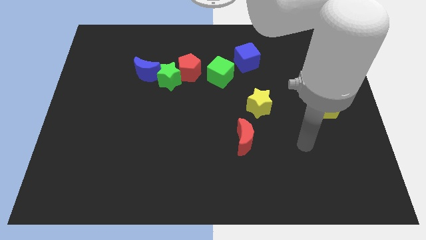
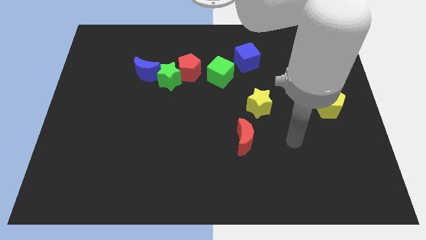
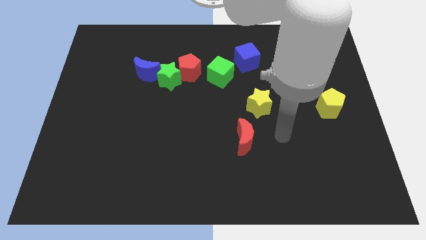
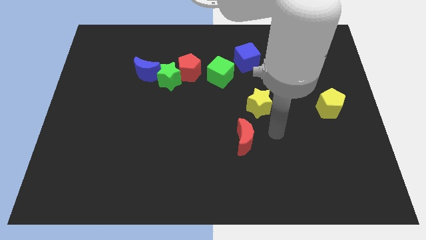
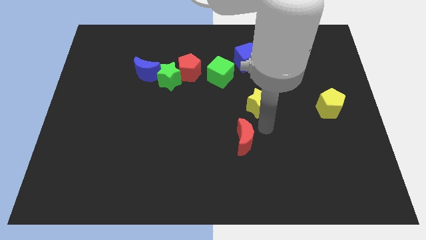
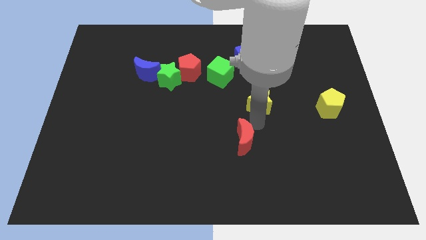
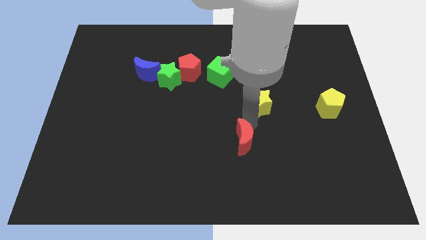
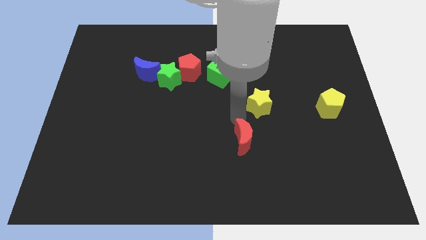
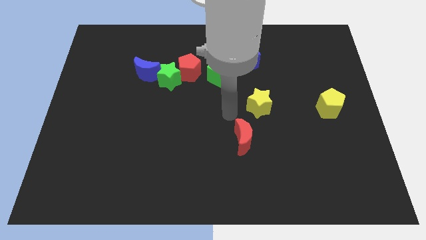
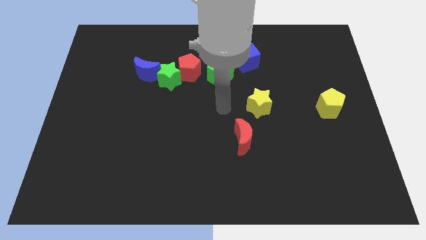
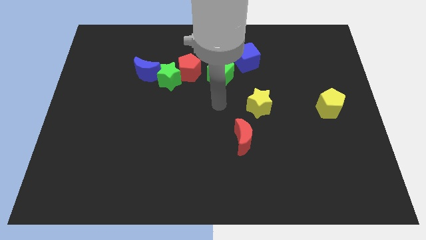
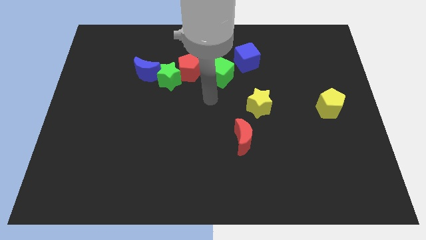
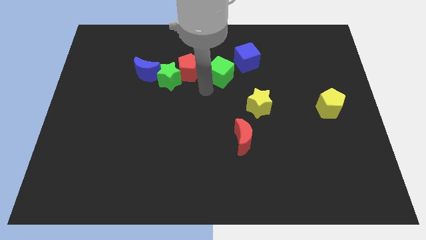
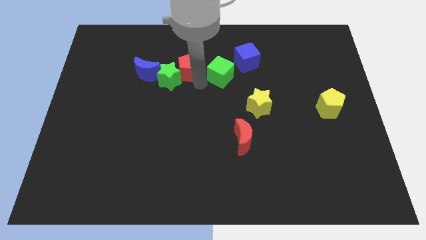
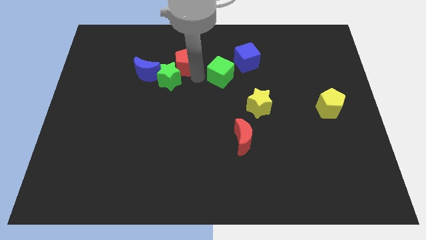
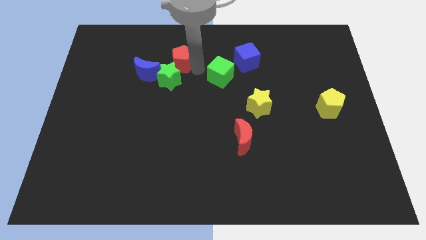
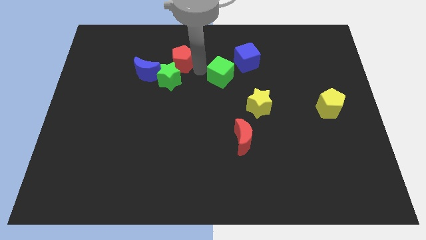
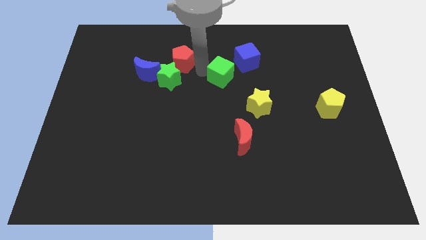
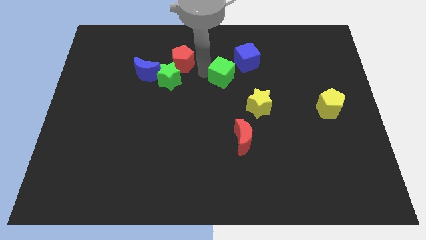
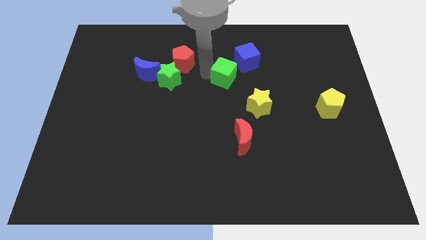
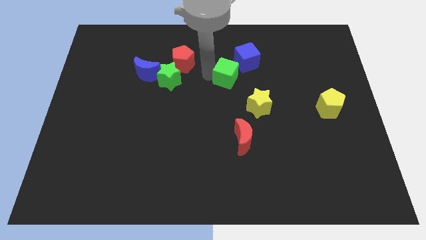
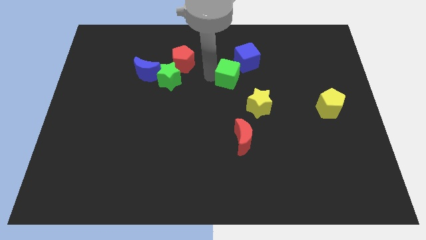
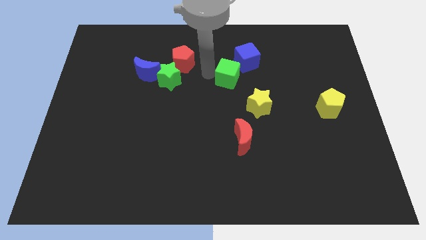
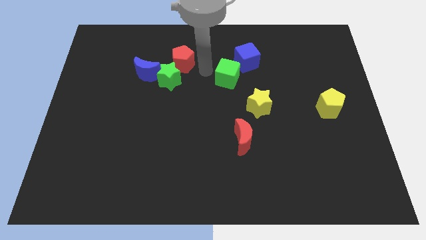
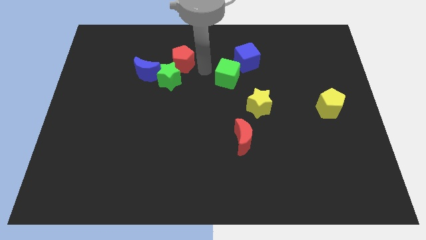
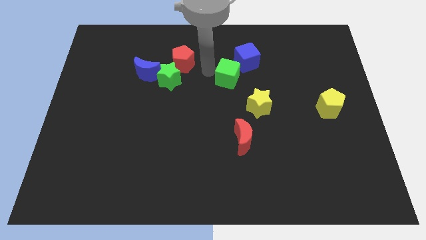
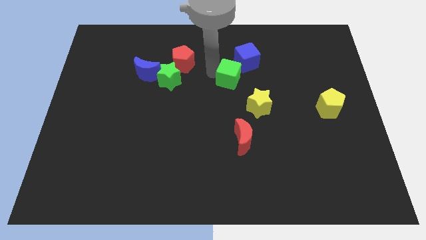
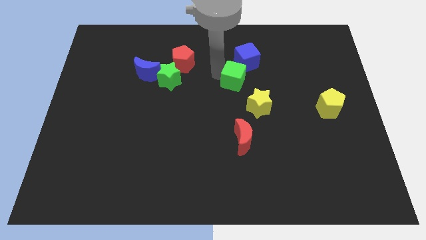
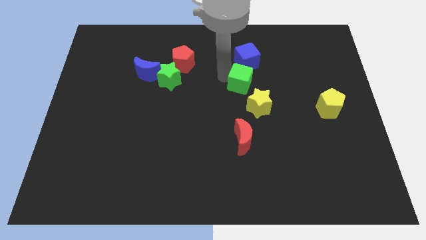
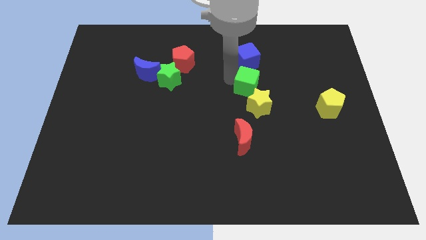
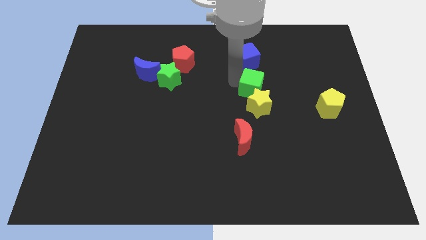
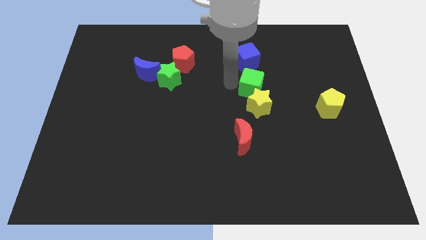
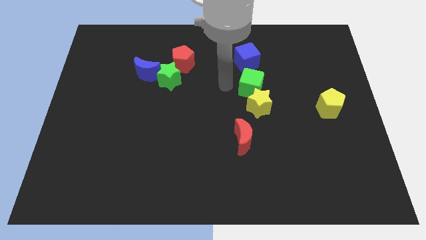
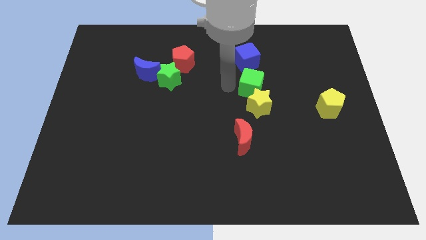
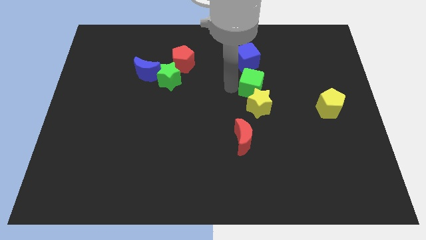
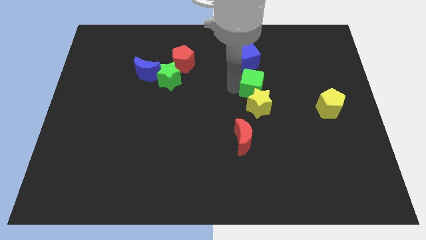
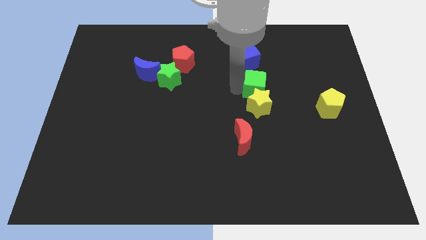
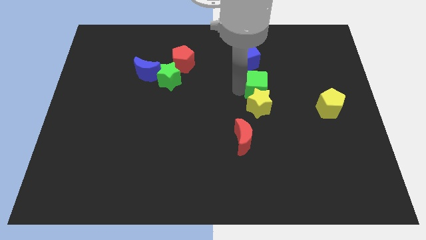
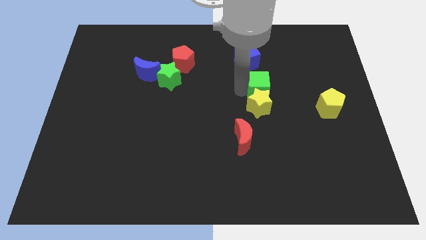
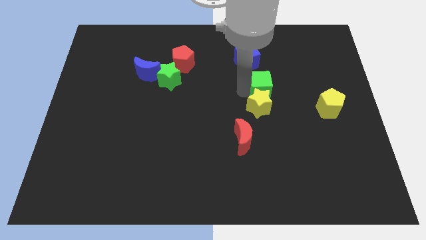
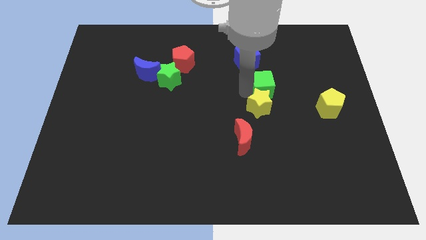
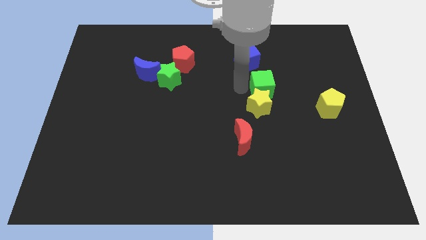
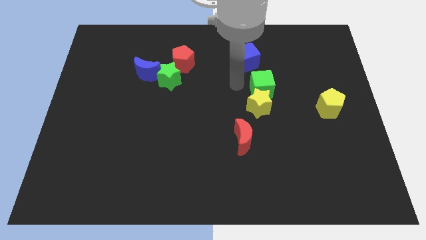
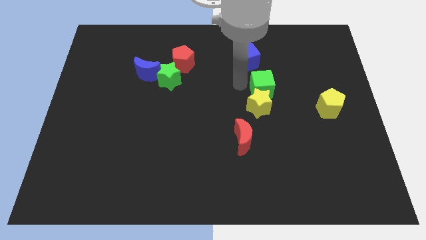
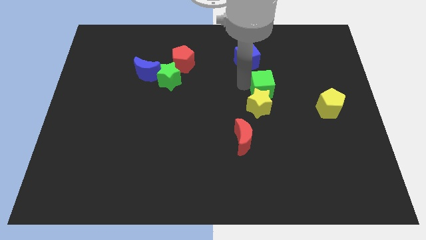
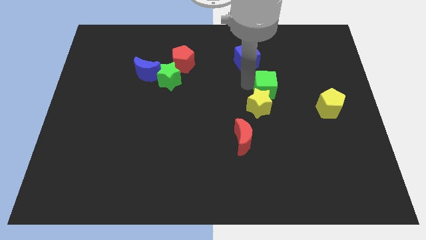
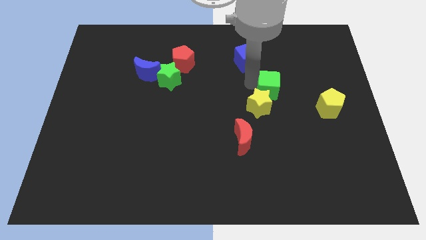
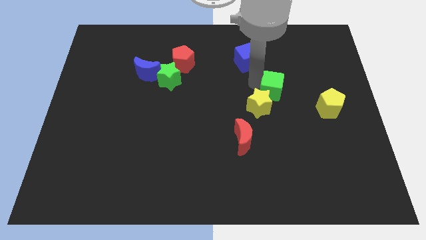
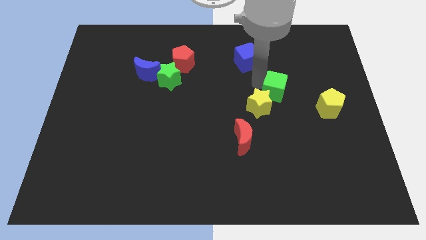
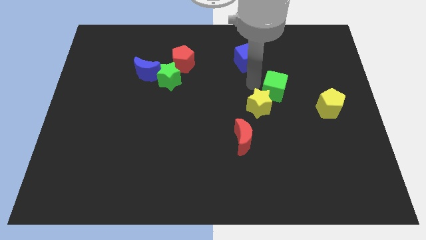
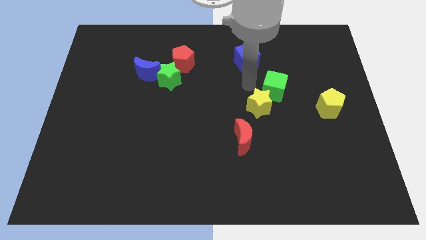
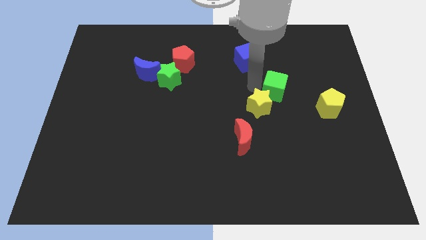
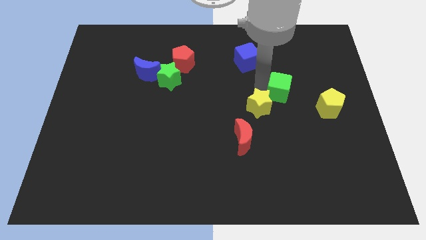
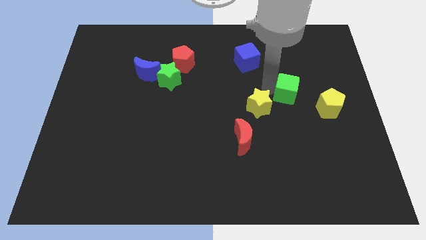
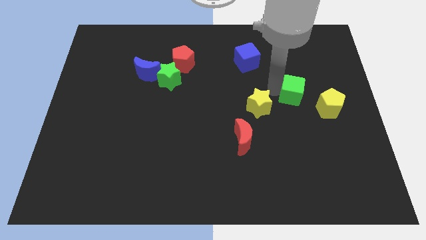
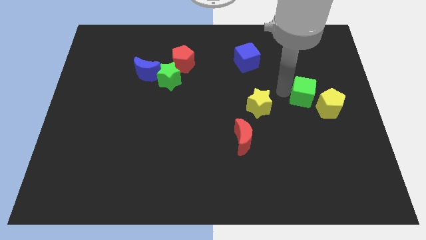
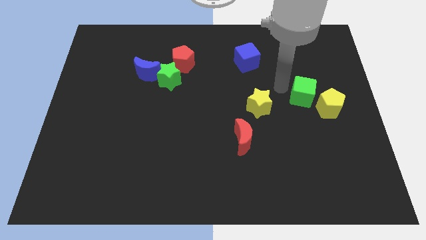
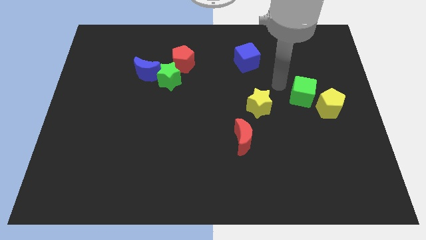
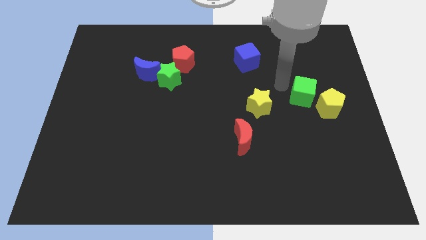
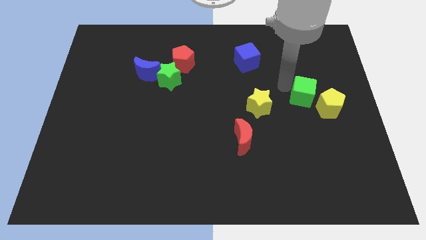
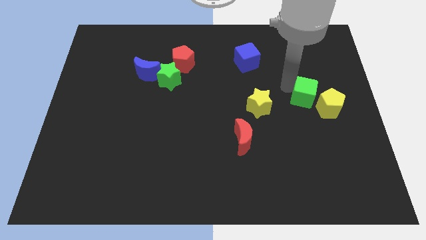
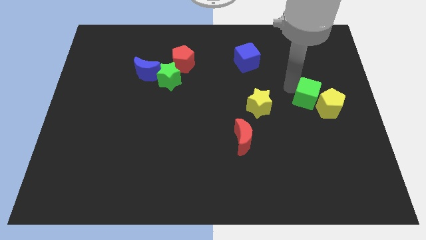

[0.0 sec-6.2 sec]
slide the green cube next to the yellow pentagon
